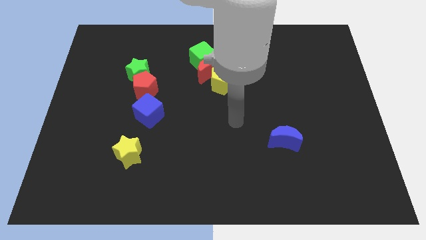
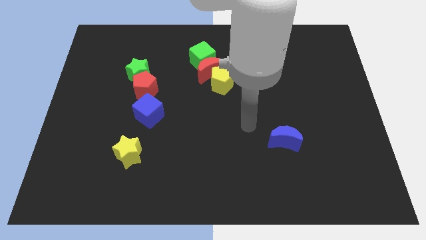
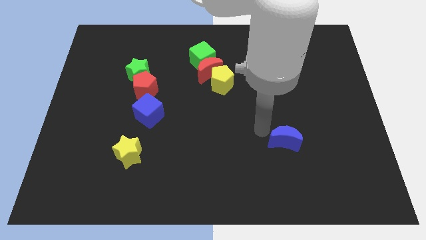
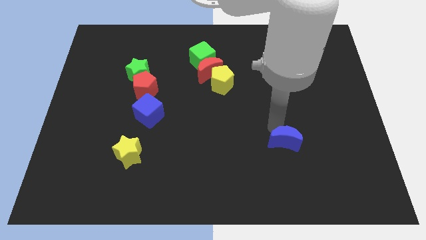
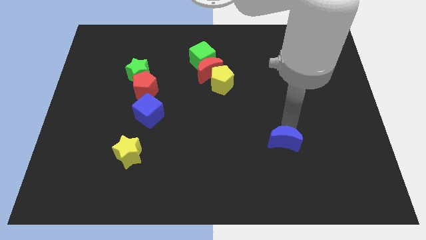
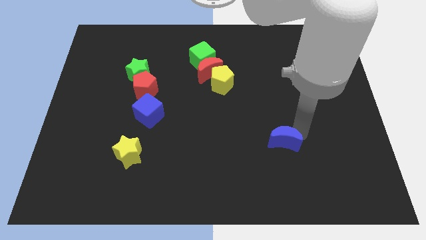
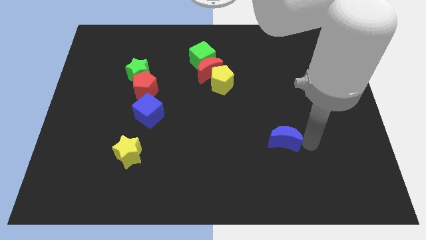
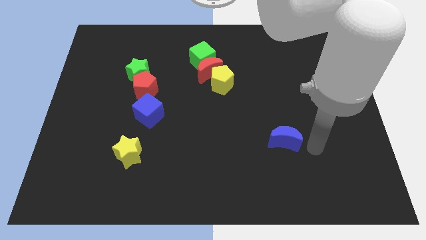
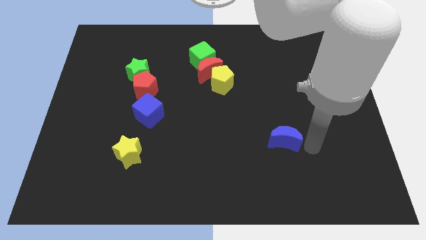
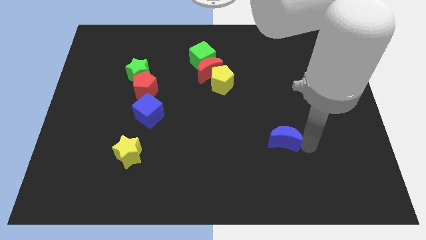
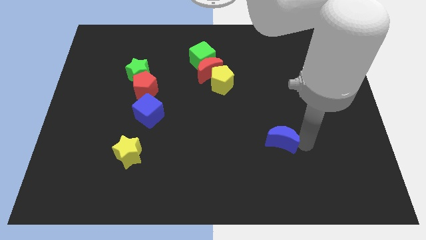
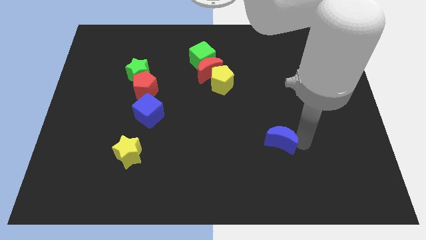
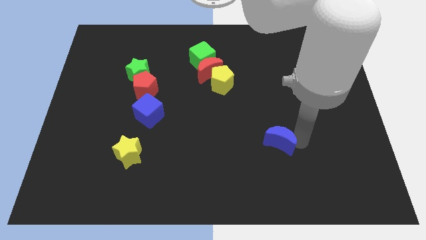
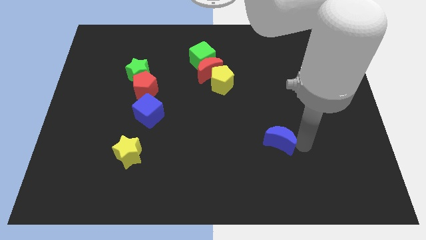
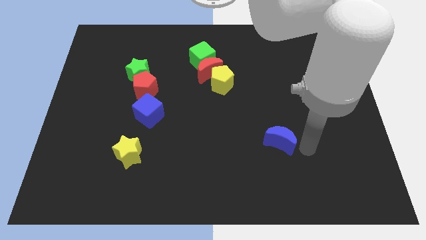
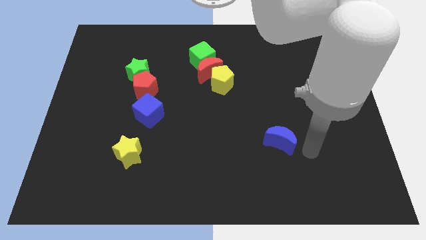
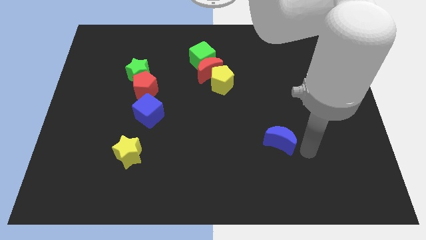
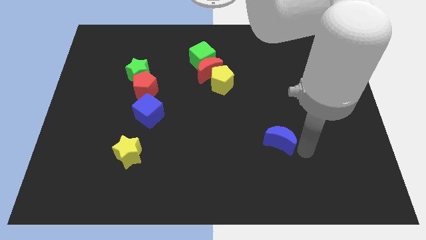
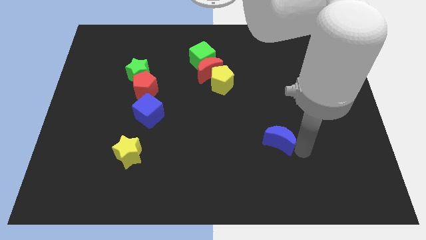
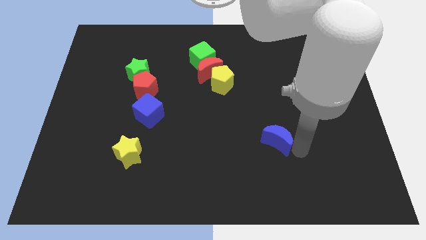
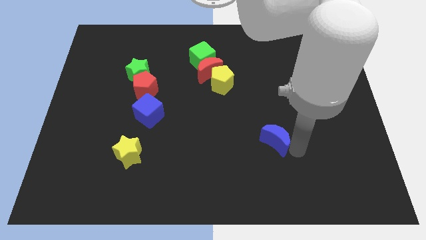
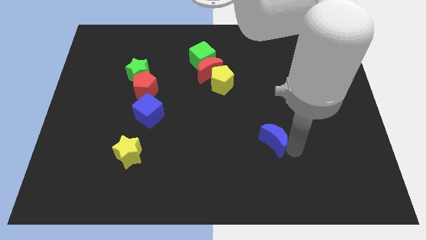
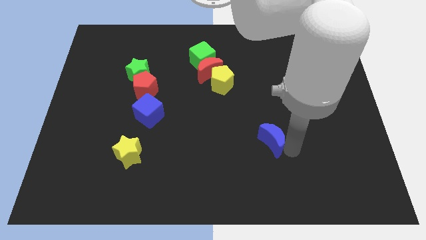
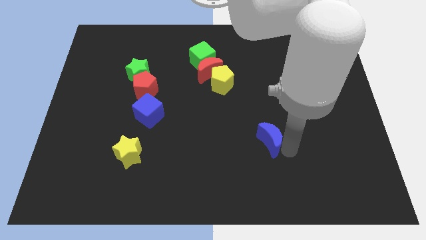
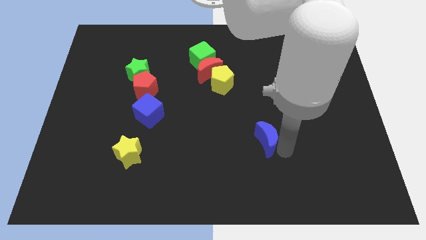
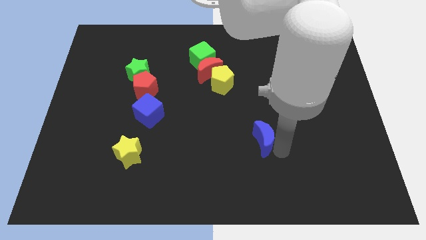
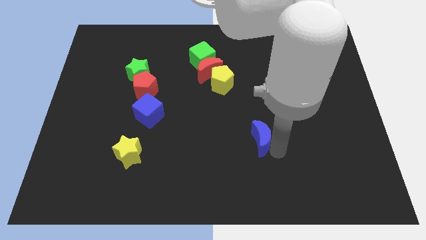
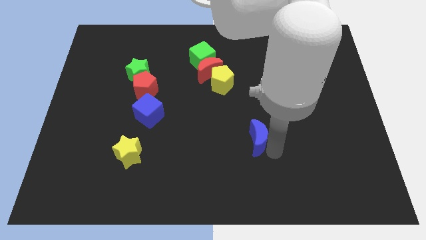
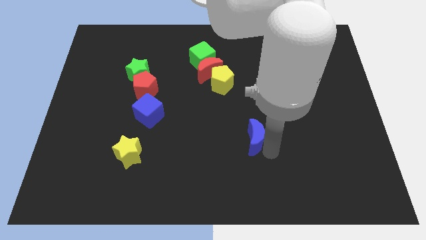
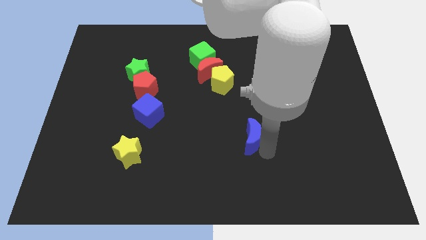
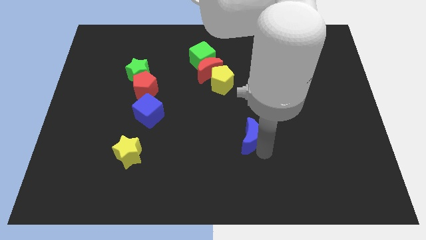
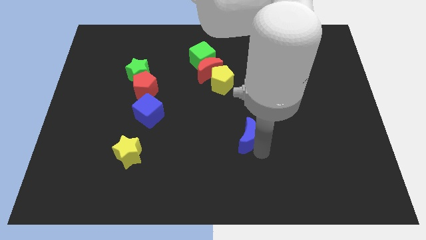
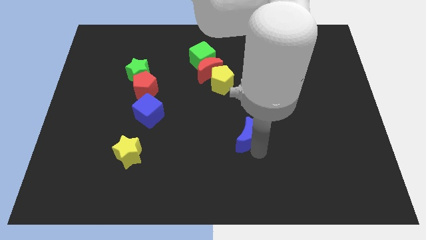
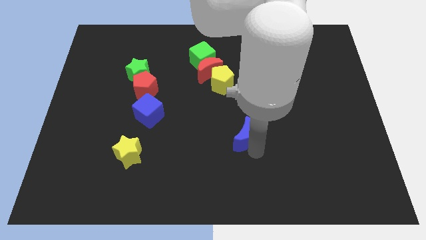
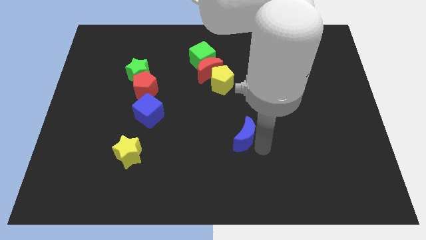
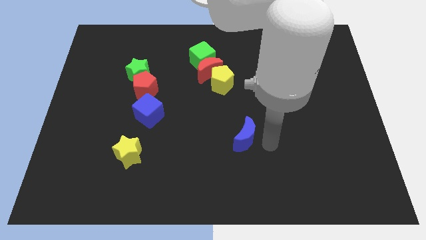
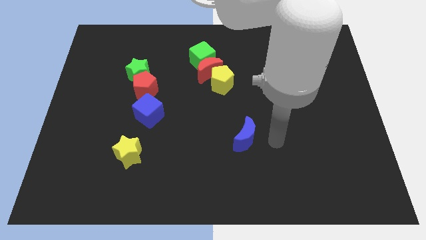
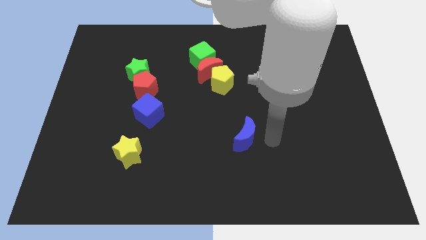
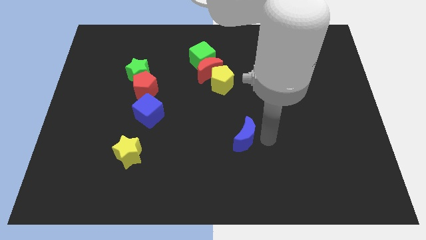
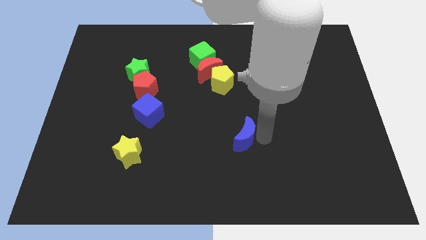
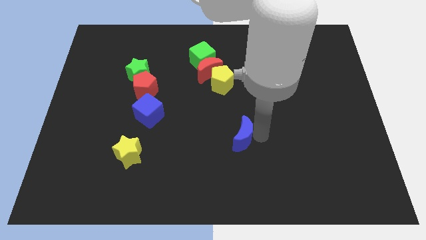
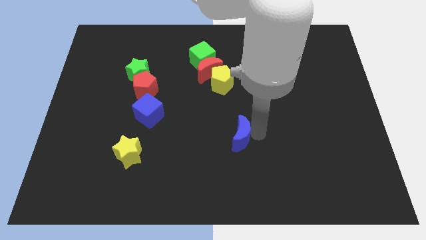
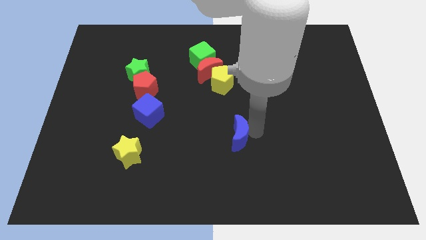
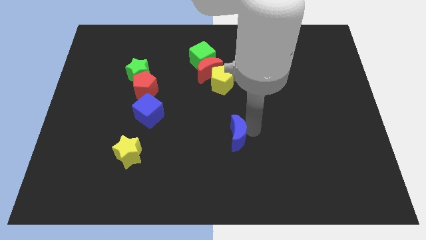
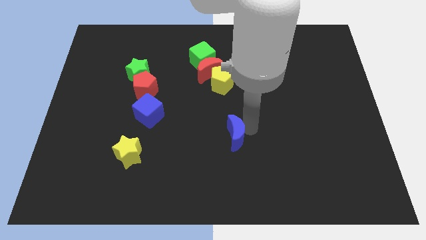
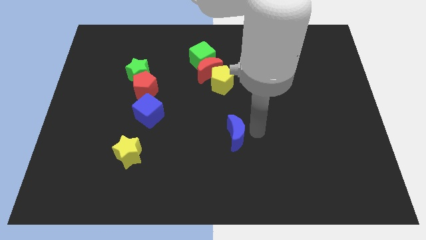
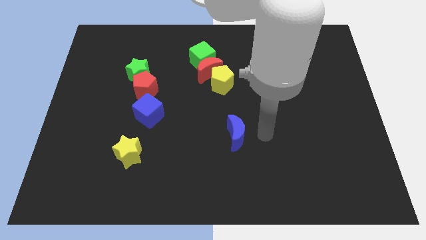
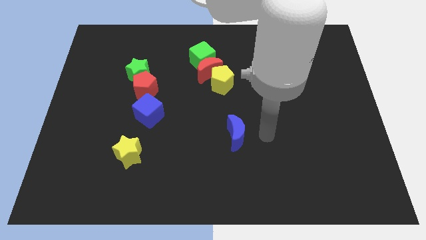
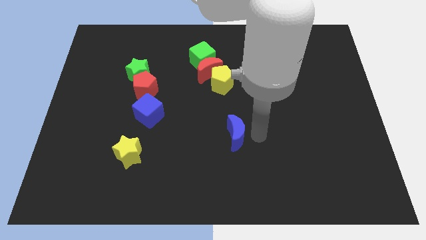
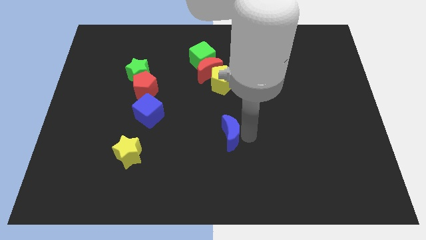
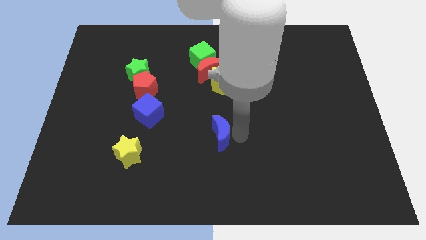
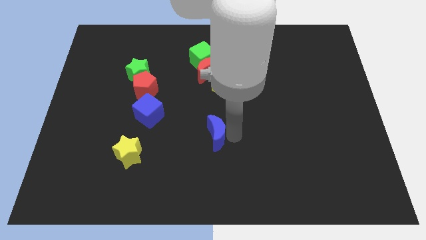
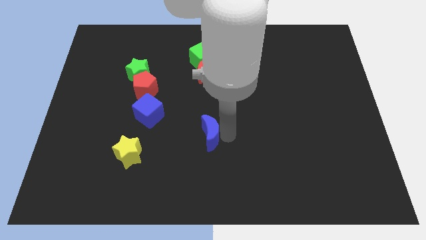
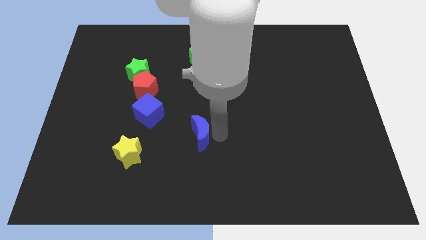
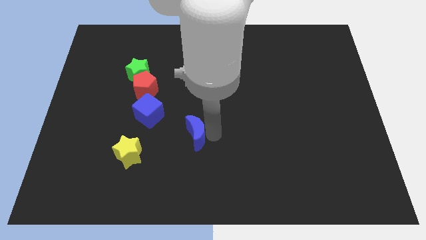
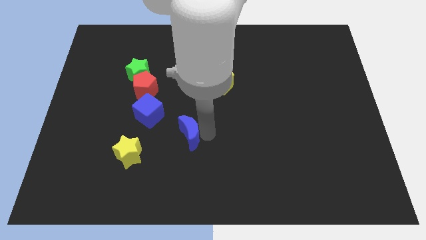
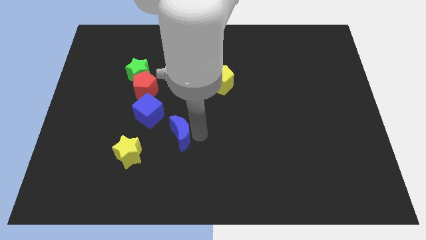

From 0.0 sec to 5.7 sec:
push the blue moon diagonally up and to the right of the yellow star
